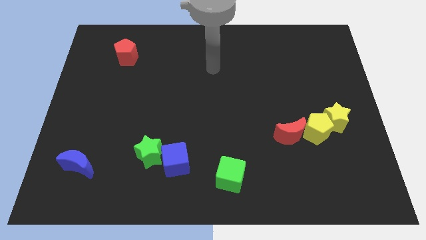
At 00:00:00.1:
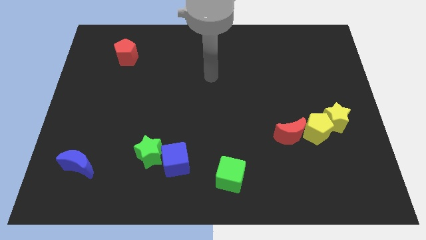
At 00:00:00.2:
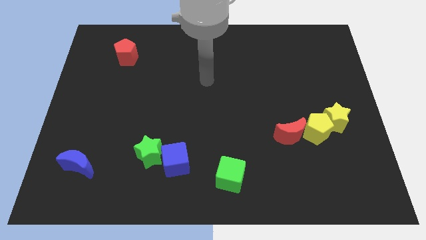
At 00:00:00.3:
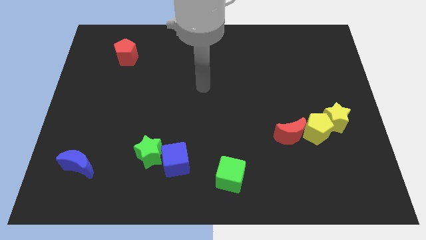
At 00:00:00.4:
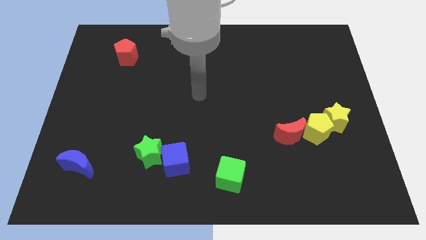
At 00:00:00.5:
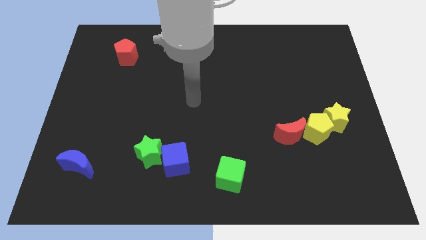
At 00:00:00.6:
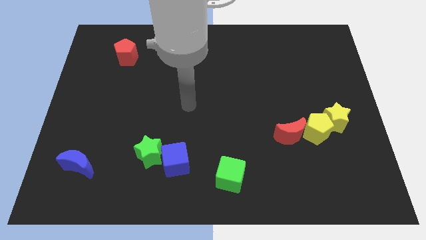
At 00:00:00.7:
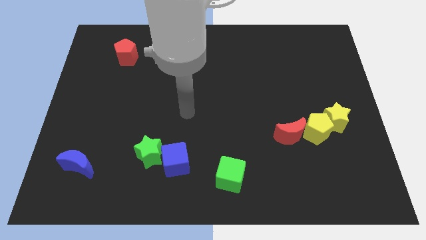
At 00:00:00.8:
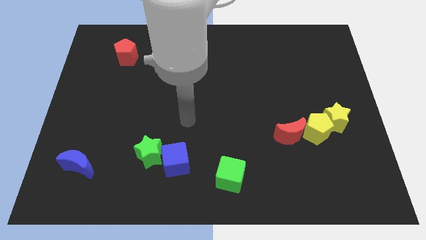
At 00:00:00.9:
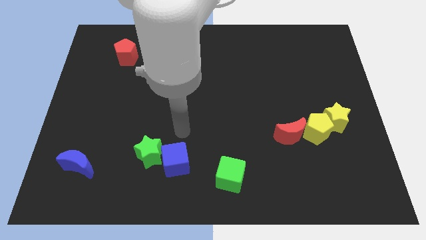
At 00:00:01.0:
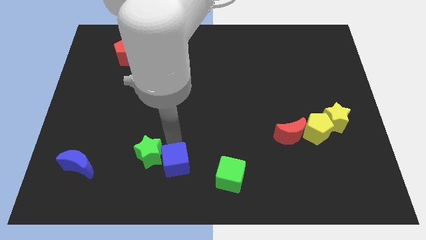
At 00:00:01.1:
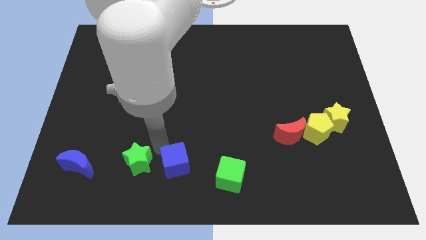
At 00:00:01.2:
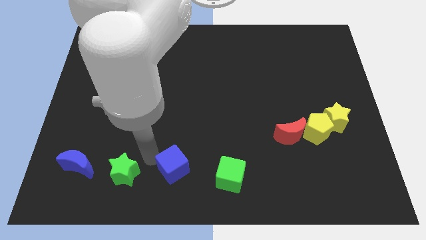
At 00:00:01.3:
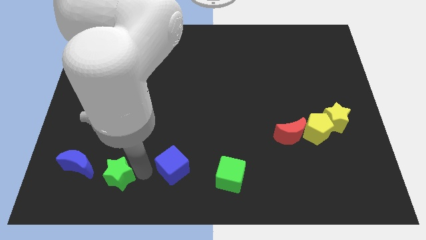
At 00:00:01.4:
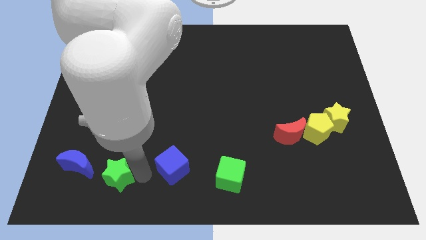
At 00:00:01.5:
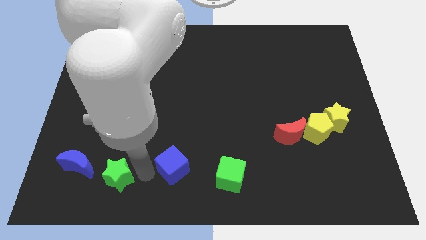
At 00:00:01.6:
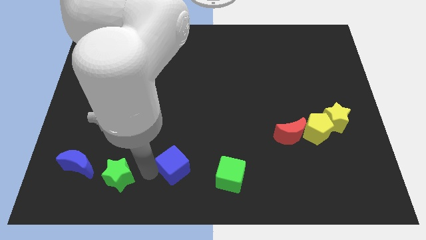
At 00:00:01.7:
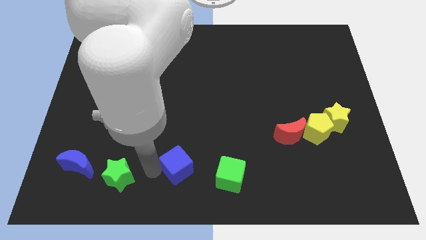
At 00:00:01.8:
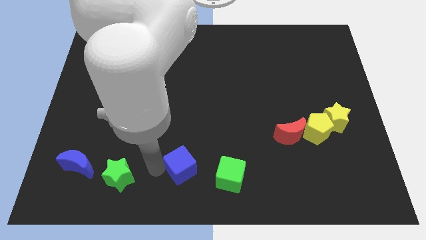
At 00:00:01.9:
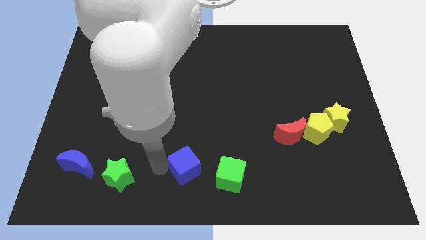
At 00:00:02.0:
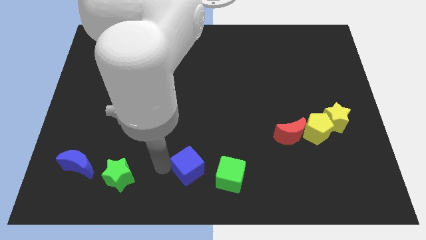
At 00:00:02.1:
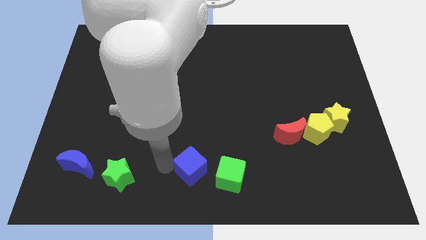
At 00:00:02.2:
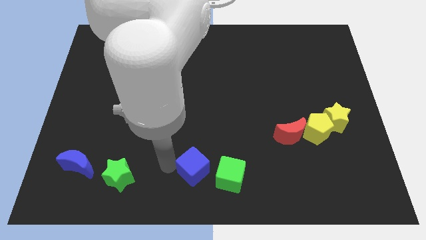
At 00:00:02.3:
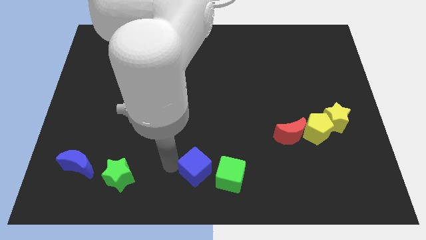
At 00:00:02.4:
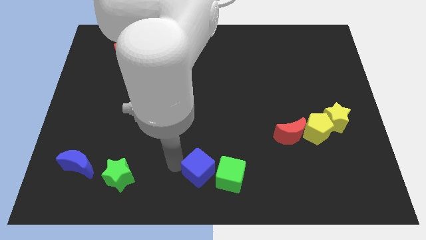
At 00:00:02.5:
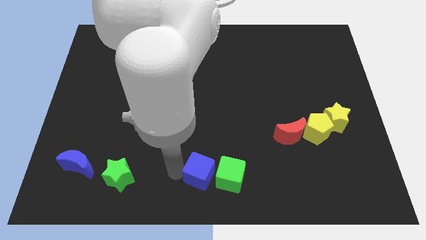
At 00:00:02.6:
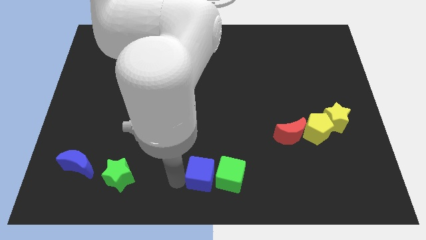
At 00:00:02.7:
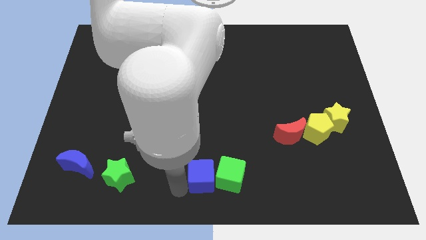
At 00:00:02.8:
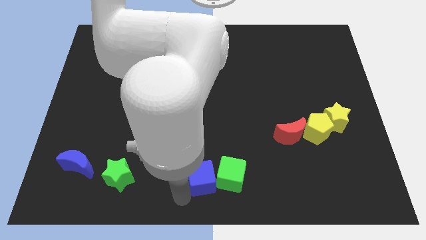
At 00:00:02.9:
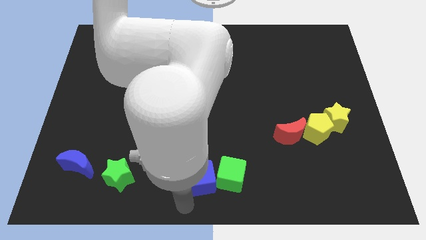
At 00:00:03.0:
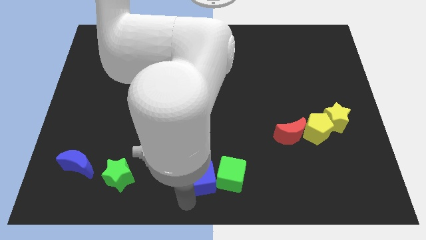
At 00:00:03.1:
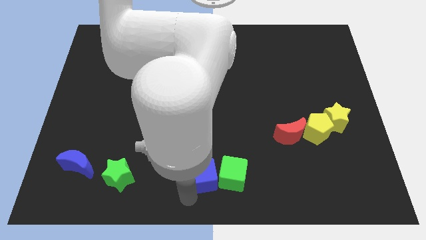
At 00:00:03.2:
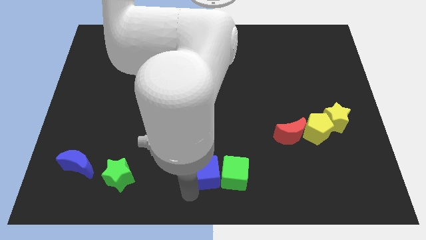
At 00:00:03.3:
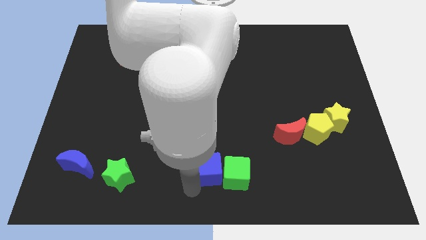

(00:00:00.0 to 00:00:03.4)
move the blue cube slightly right

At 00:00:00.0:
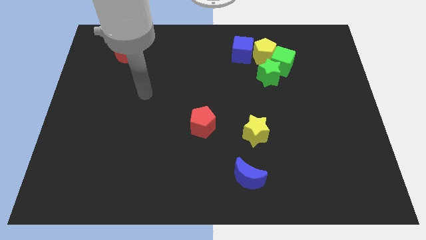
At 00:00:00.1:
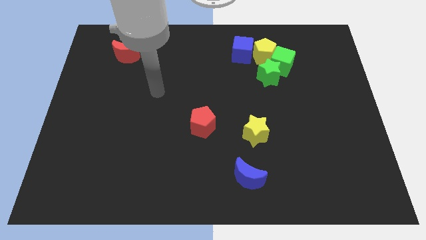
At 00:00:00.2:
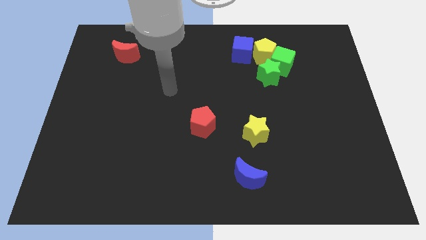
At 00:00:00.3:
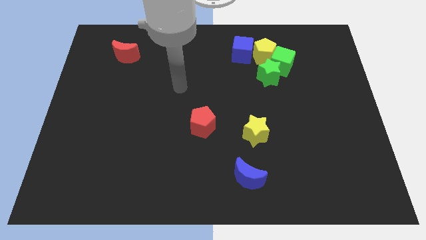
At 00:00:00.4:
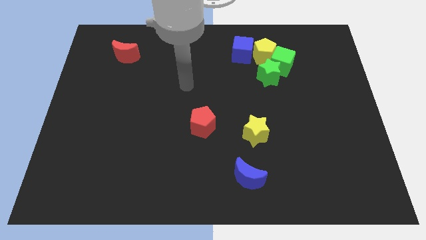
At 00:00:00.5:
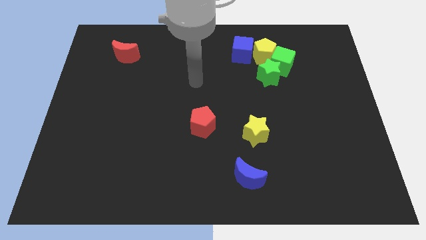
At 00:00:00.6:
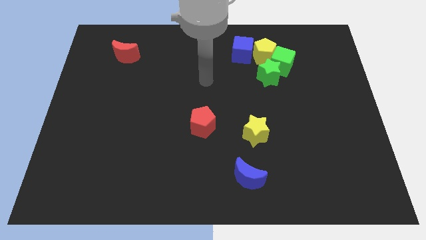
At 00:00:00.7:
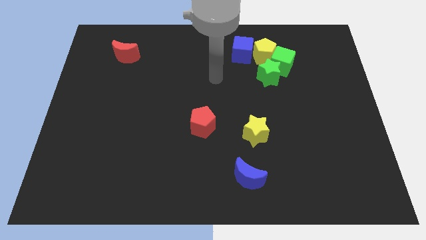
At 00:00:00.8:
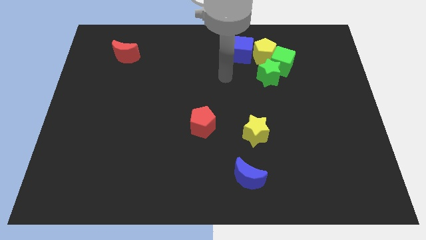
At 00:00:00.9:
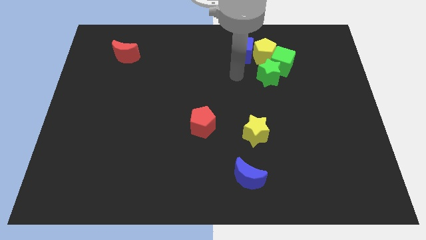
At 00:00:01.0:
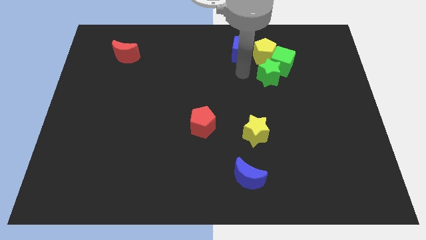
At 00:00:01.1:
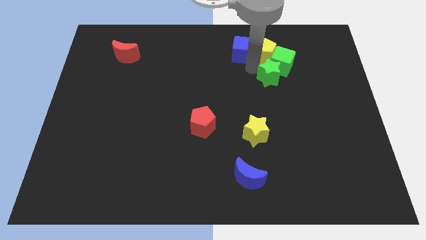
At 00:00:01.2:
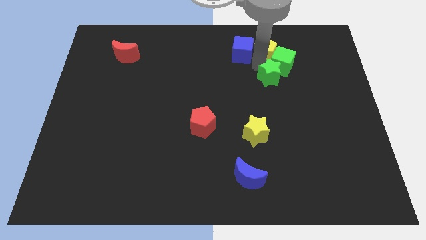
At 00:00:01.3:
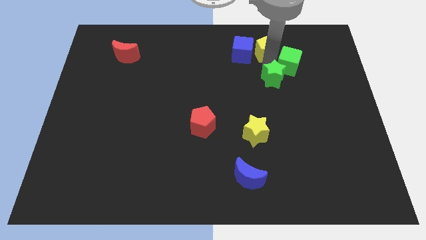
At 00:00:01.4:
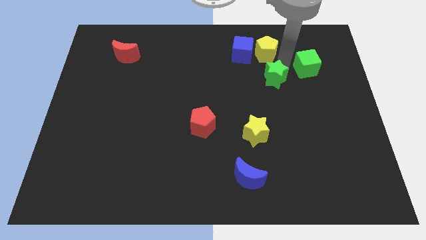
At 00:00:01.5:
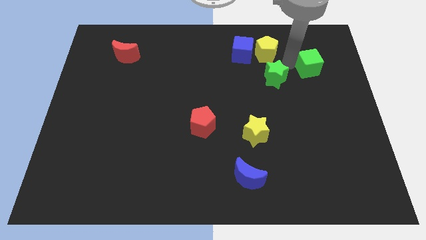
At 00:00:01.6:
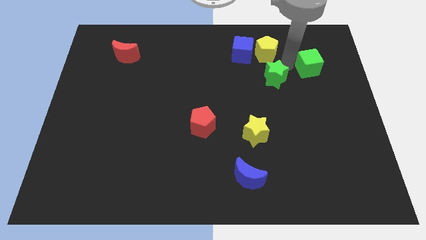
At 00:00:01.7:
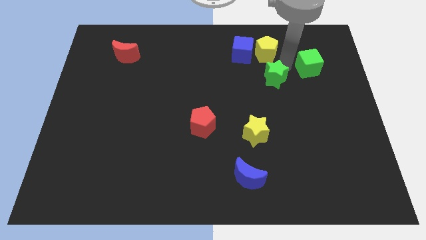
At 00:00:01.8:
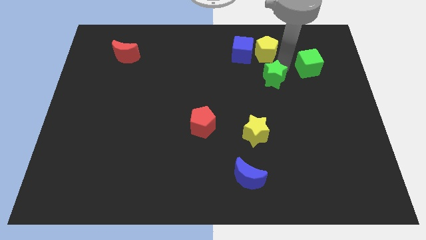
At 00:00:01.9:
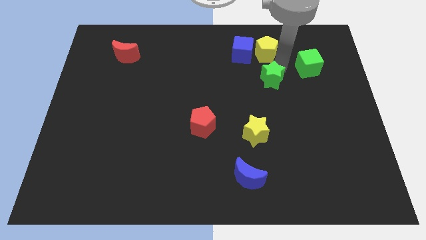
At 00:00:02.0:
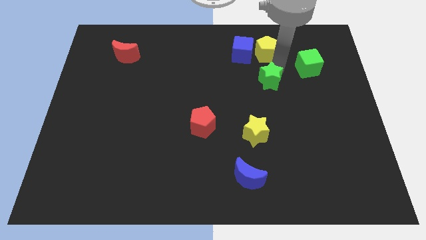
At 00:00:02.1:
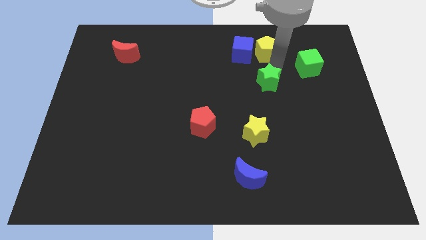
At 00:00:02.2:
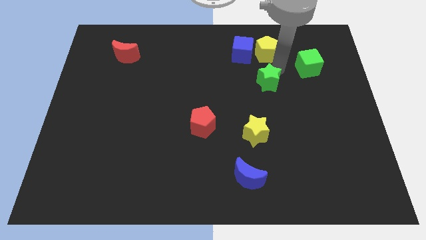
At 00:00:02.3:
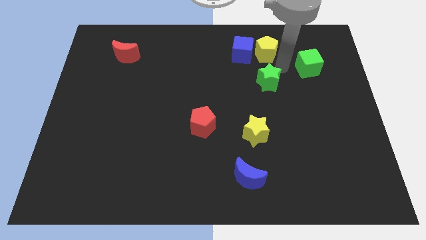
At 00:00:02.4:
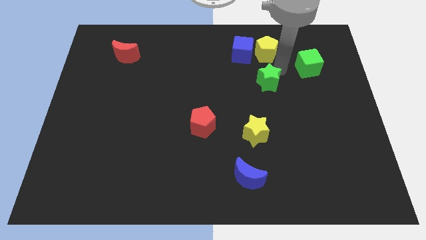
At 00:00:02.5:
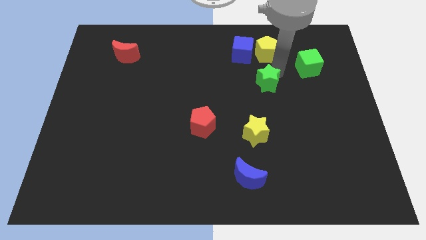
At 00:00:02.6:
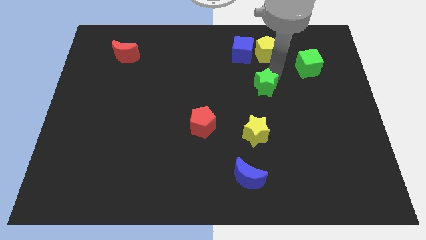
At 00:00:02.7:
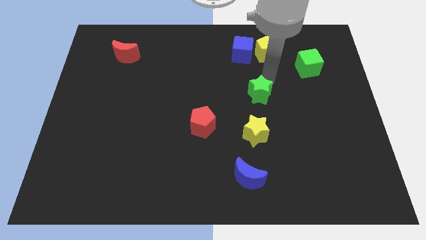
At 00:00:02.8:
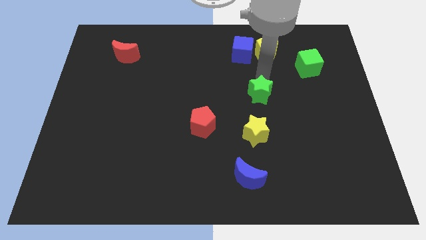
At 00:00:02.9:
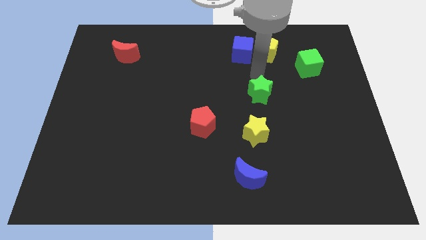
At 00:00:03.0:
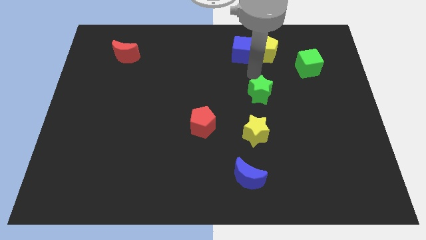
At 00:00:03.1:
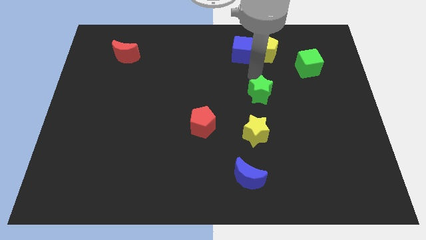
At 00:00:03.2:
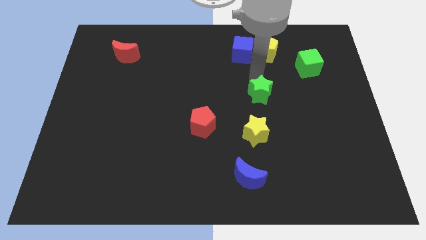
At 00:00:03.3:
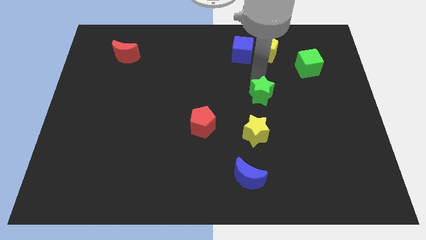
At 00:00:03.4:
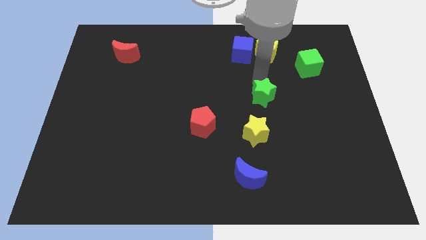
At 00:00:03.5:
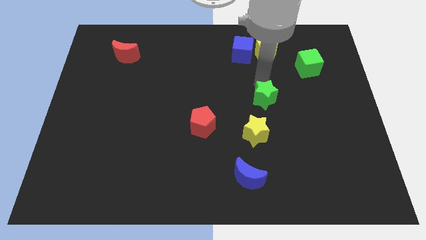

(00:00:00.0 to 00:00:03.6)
slide the green star a bit down

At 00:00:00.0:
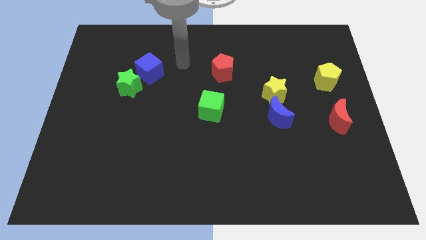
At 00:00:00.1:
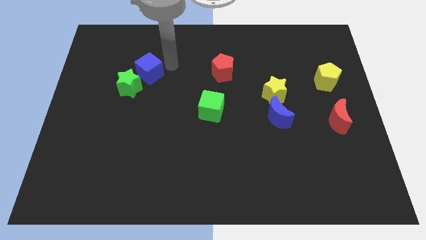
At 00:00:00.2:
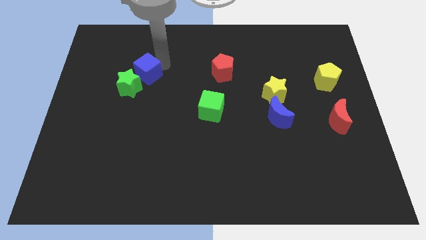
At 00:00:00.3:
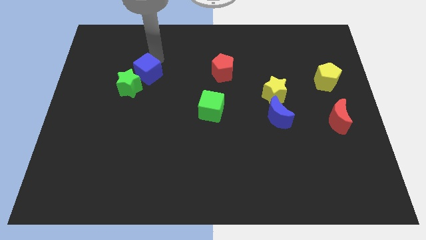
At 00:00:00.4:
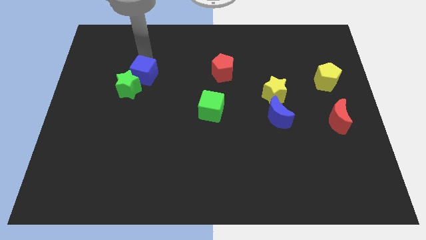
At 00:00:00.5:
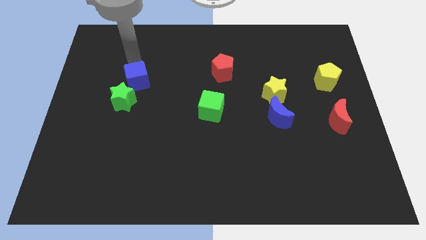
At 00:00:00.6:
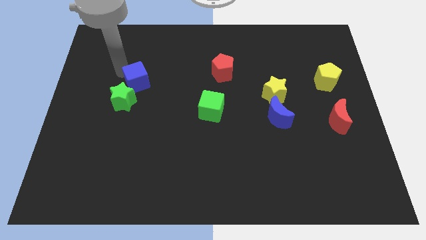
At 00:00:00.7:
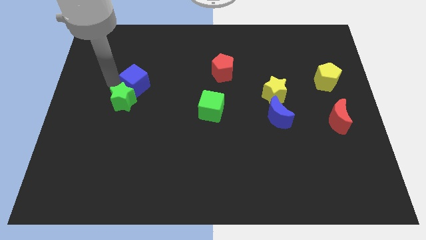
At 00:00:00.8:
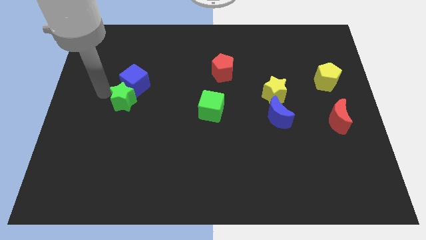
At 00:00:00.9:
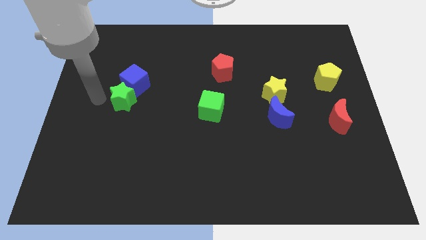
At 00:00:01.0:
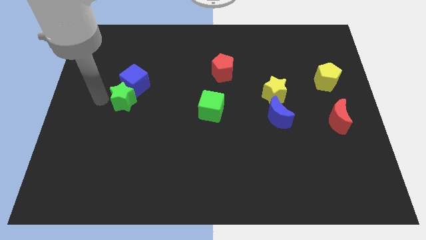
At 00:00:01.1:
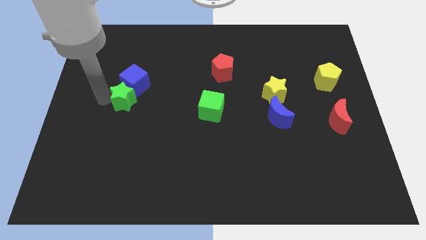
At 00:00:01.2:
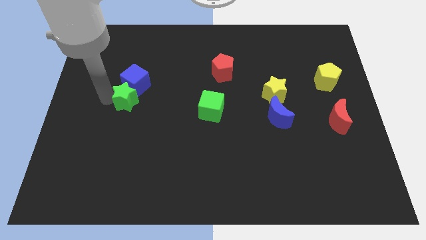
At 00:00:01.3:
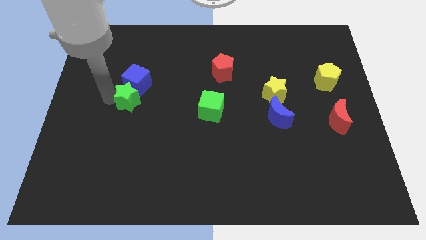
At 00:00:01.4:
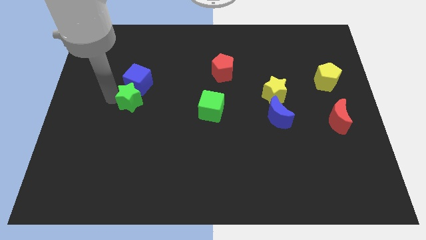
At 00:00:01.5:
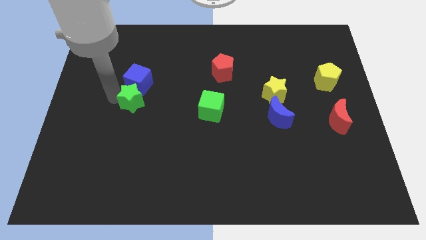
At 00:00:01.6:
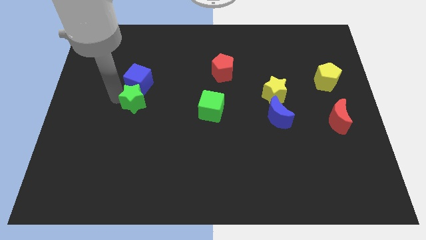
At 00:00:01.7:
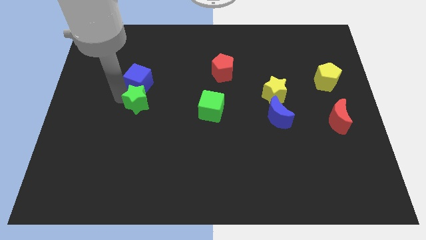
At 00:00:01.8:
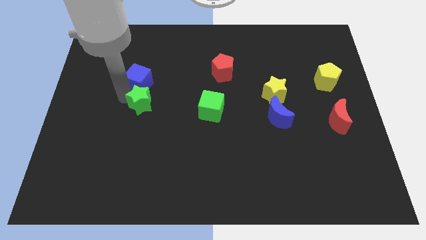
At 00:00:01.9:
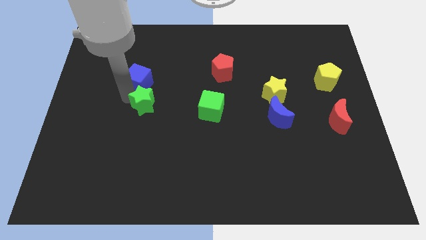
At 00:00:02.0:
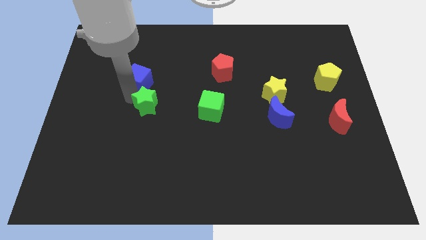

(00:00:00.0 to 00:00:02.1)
slightly move the green star down and to the right
